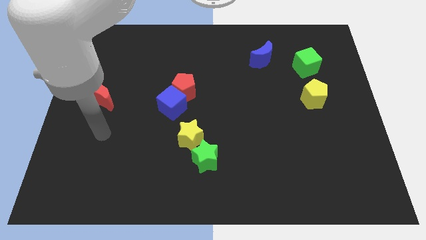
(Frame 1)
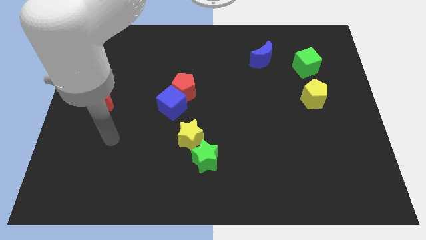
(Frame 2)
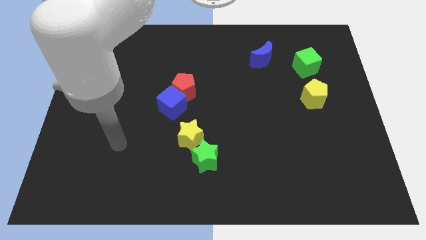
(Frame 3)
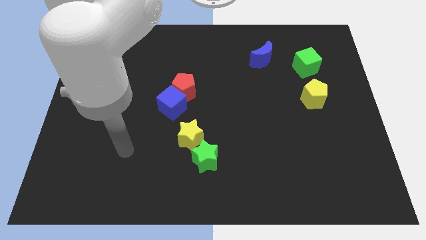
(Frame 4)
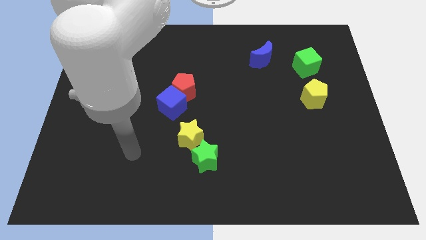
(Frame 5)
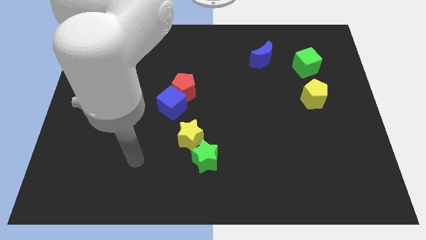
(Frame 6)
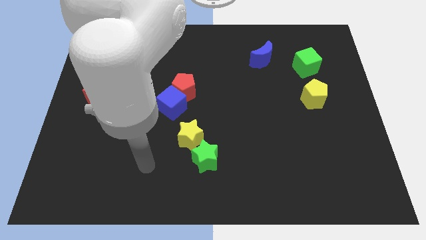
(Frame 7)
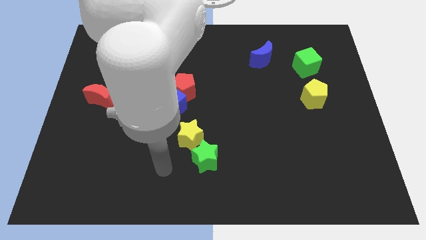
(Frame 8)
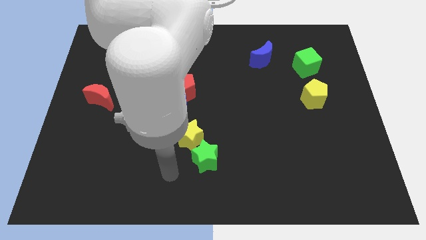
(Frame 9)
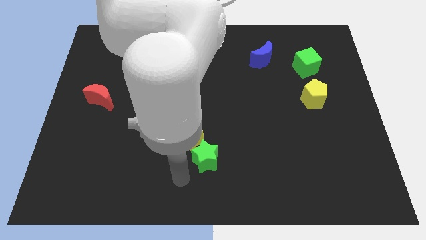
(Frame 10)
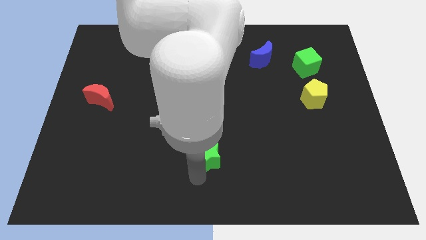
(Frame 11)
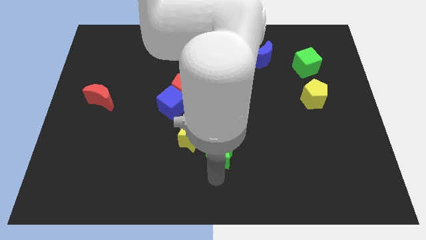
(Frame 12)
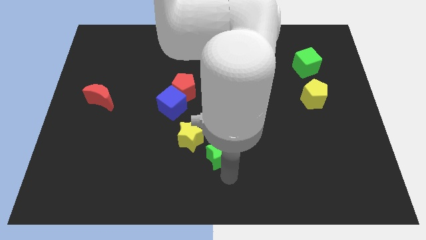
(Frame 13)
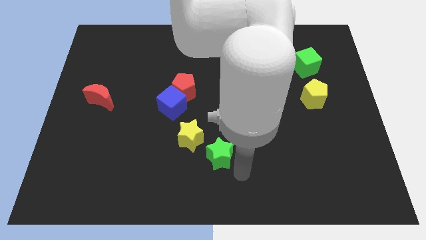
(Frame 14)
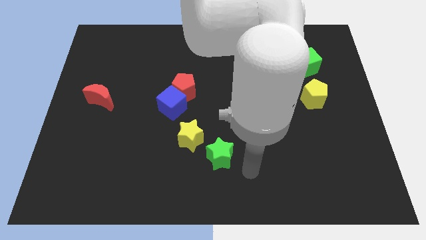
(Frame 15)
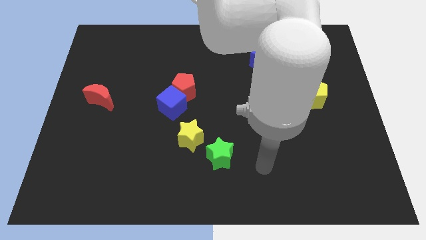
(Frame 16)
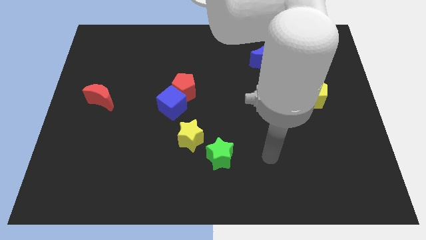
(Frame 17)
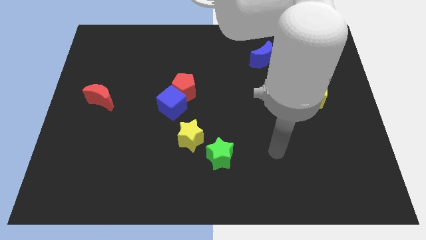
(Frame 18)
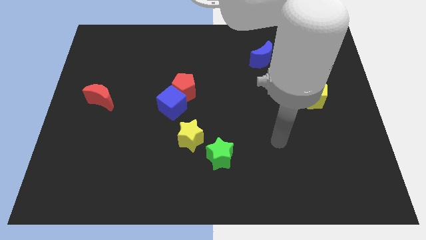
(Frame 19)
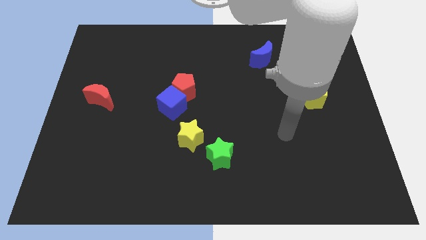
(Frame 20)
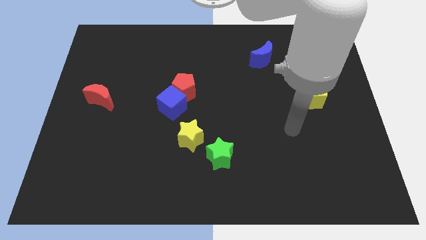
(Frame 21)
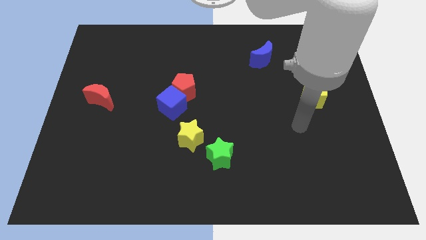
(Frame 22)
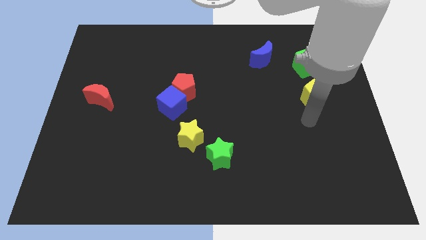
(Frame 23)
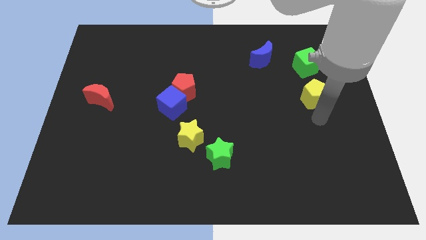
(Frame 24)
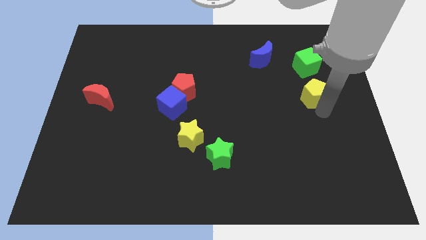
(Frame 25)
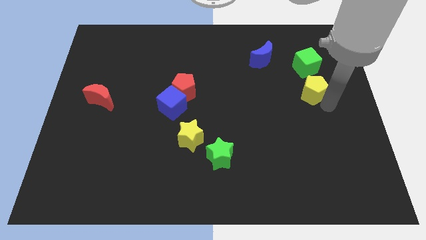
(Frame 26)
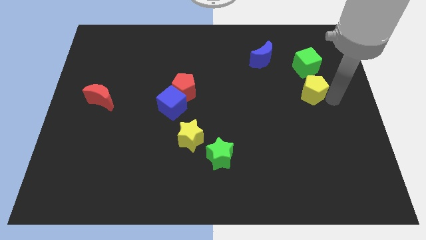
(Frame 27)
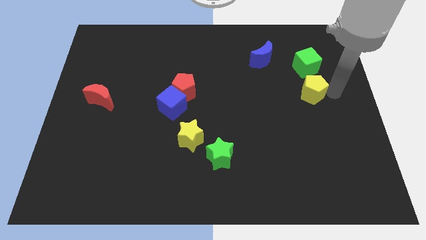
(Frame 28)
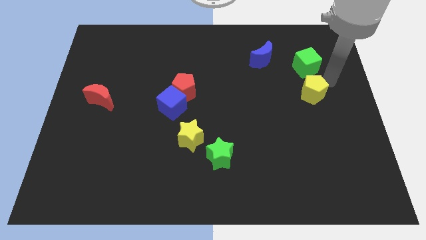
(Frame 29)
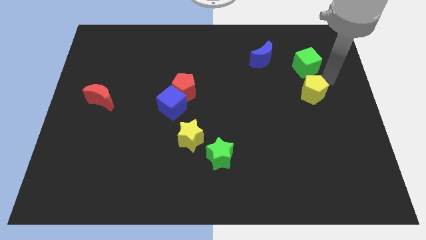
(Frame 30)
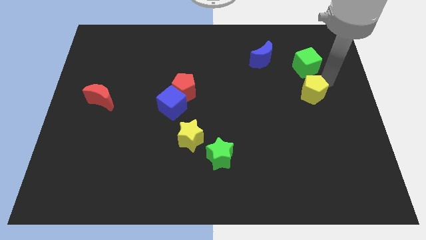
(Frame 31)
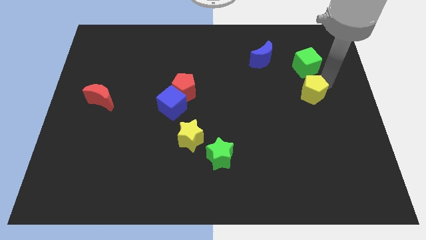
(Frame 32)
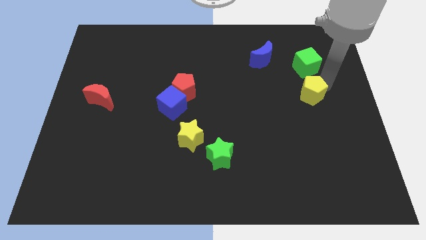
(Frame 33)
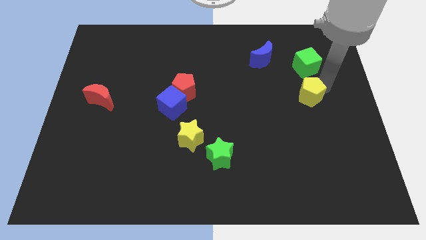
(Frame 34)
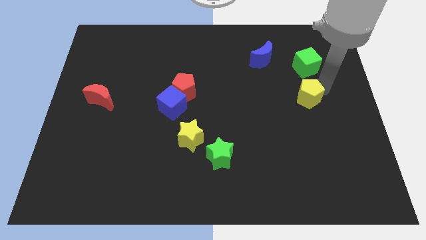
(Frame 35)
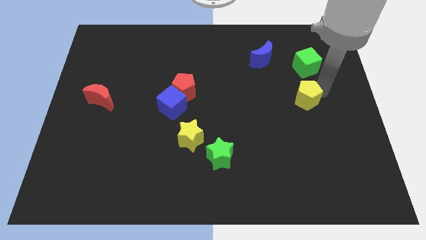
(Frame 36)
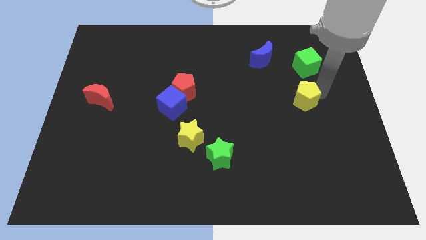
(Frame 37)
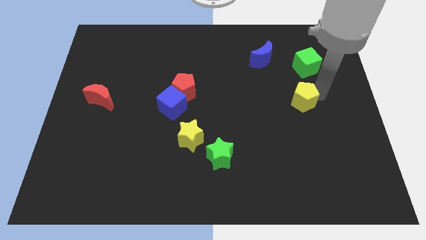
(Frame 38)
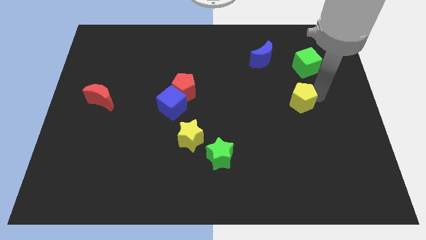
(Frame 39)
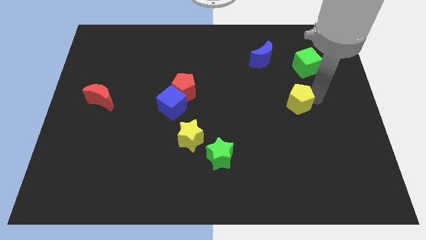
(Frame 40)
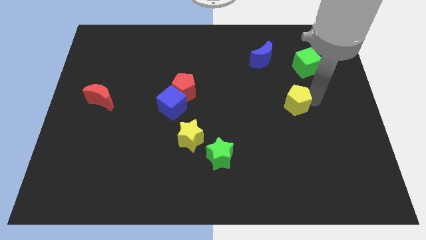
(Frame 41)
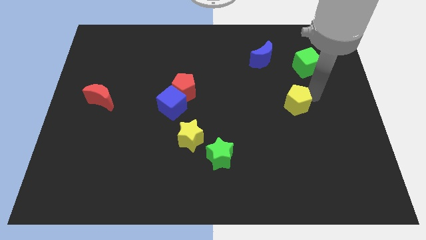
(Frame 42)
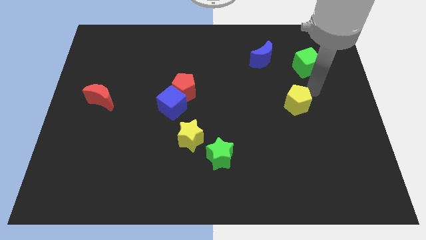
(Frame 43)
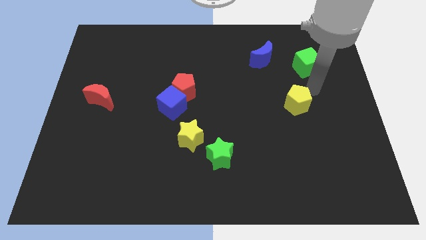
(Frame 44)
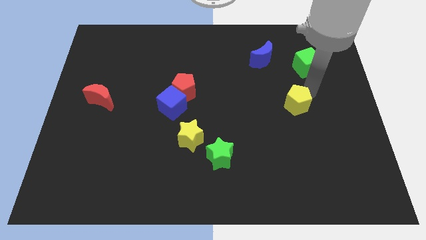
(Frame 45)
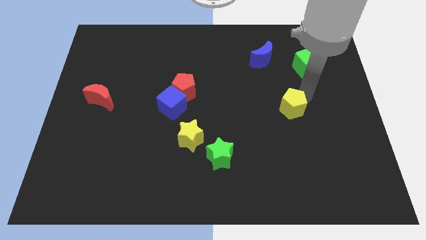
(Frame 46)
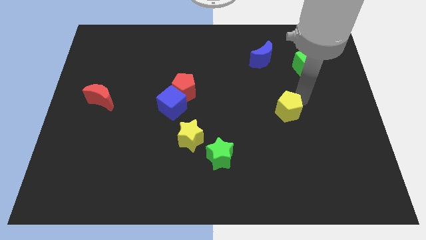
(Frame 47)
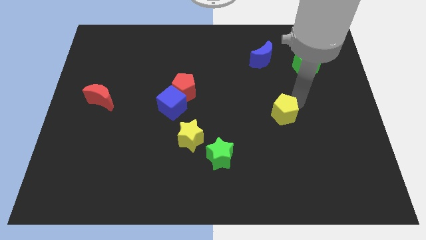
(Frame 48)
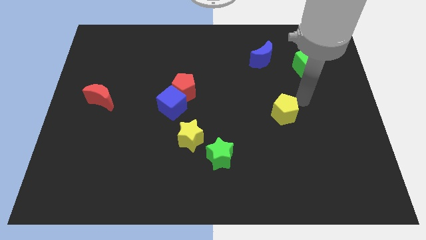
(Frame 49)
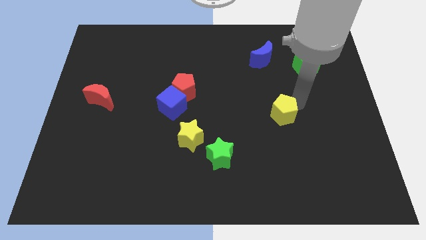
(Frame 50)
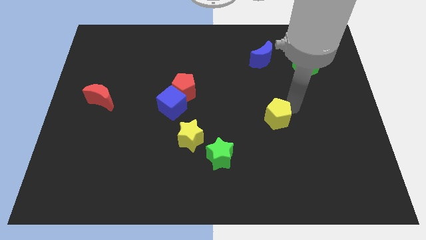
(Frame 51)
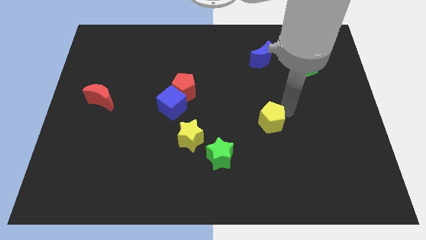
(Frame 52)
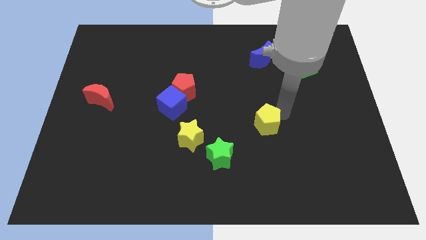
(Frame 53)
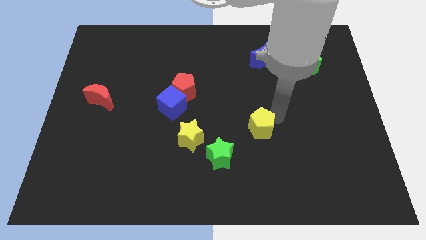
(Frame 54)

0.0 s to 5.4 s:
move the yellow pentagon just right of the yellow star

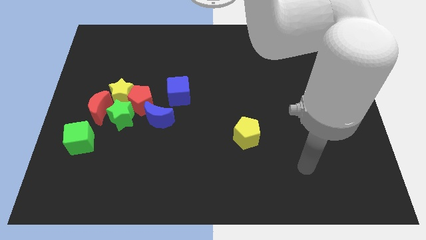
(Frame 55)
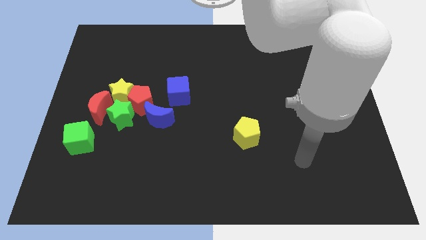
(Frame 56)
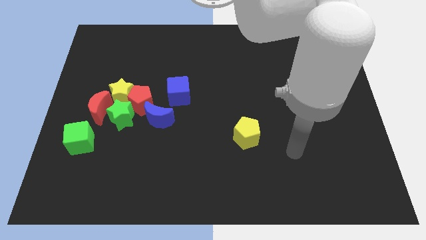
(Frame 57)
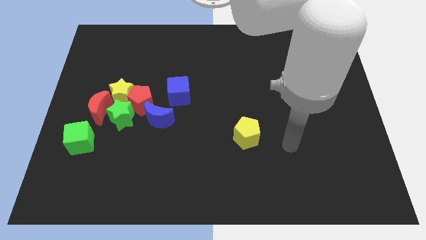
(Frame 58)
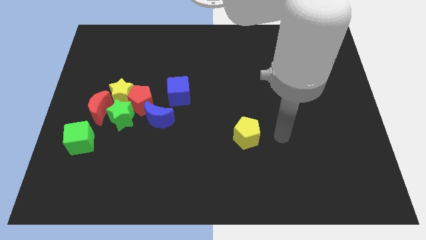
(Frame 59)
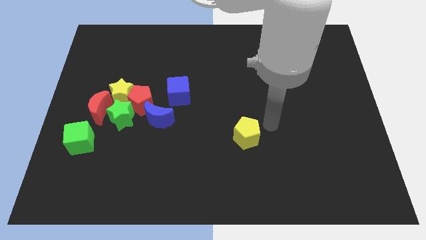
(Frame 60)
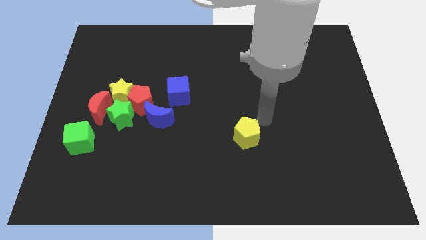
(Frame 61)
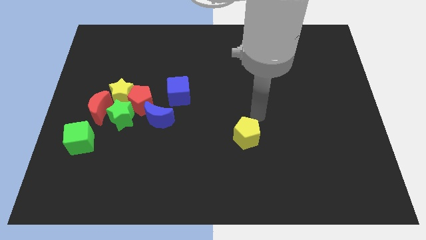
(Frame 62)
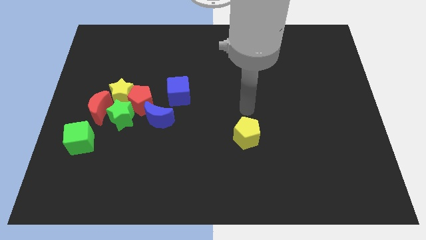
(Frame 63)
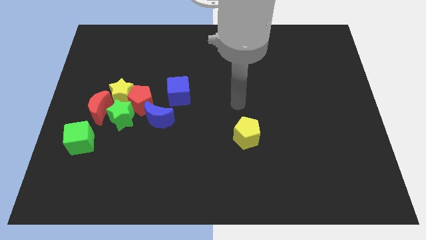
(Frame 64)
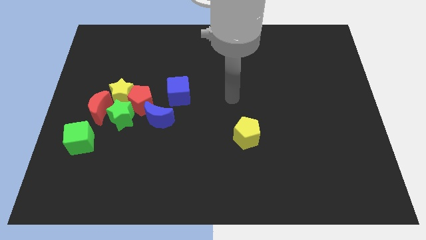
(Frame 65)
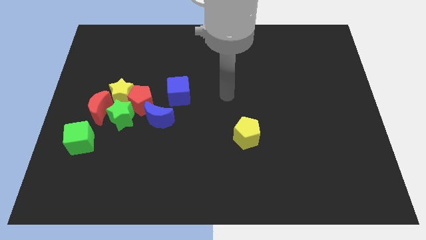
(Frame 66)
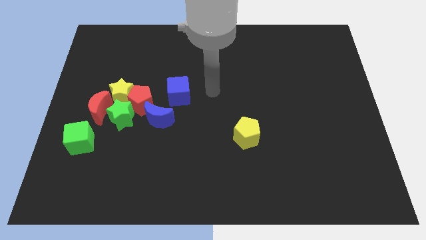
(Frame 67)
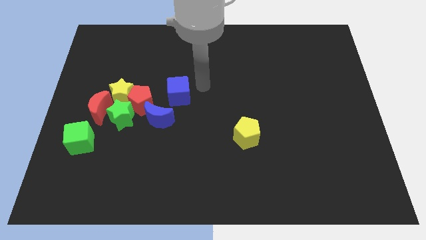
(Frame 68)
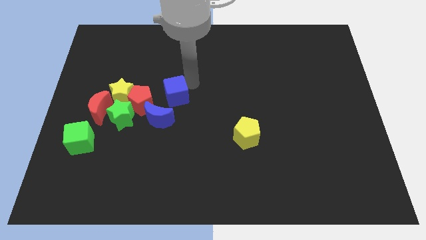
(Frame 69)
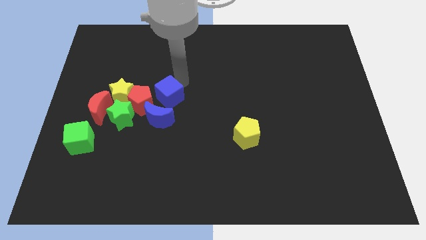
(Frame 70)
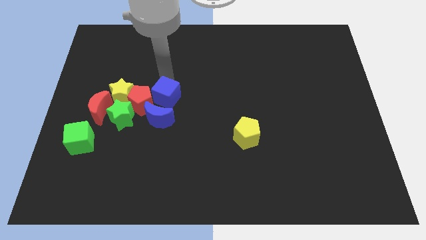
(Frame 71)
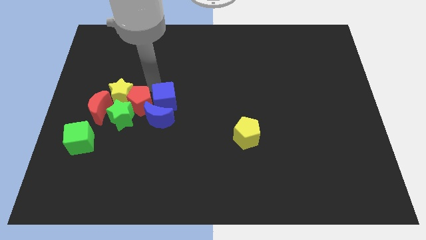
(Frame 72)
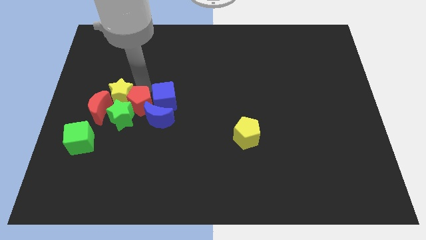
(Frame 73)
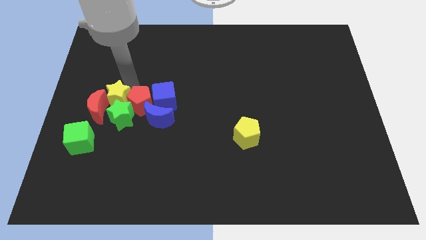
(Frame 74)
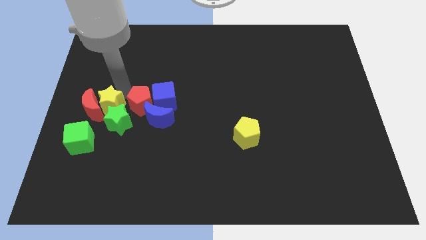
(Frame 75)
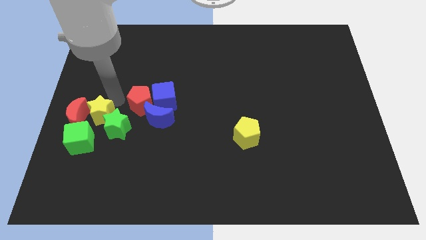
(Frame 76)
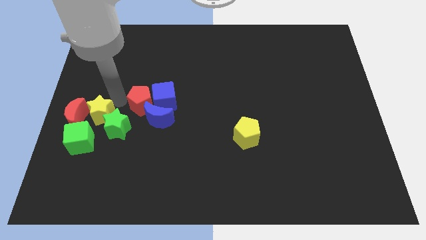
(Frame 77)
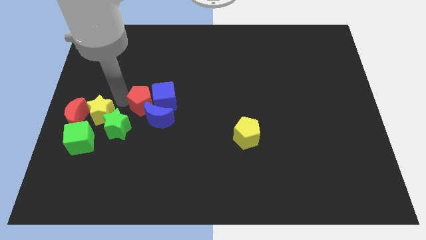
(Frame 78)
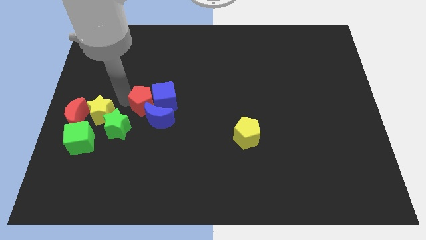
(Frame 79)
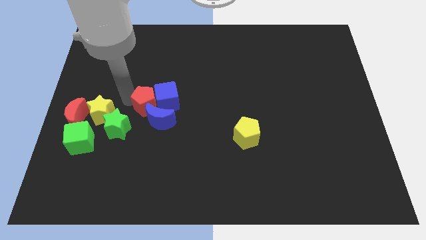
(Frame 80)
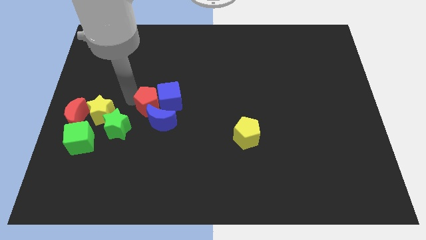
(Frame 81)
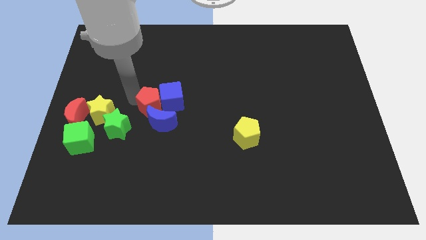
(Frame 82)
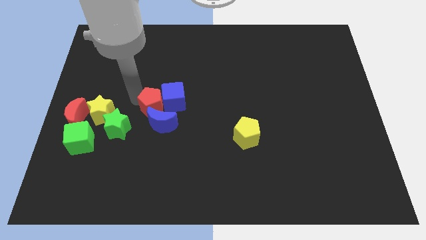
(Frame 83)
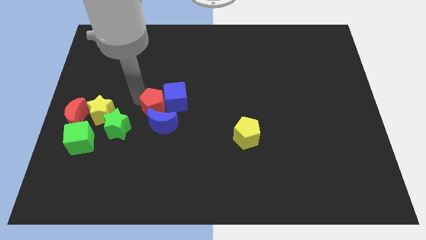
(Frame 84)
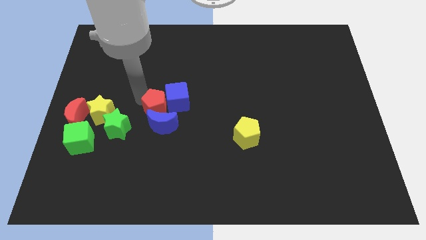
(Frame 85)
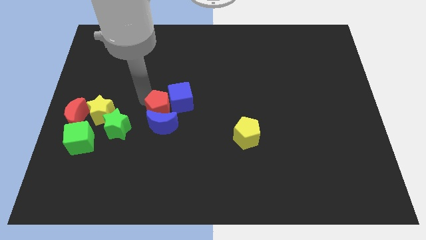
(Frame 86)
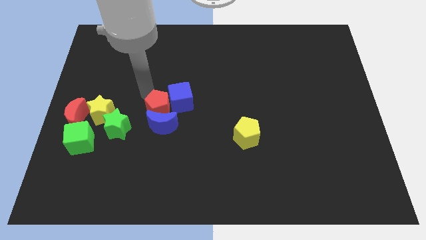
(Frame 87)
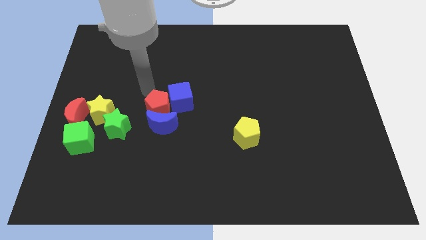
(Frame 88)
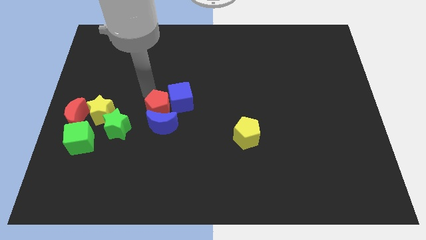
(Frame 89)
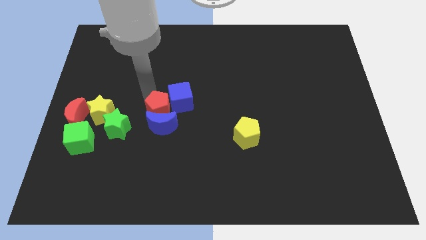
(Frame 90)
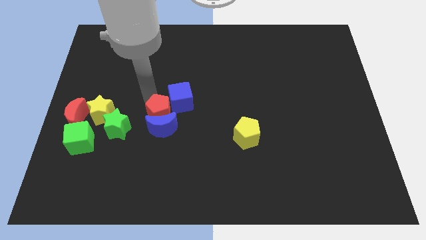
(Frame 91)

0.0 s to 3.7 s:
slide the red pentagon to the bottom side of the blue cube
